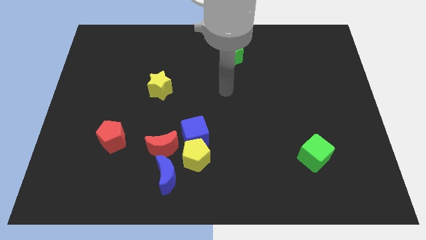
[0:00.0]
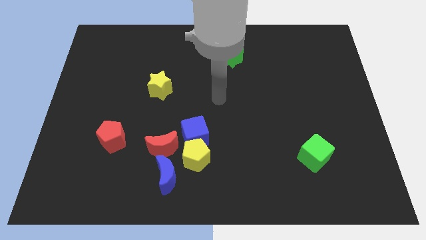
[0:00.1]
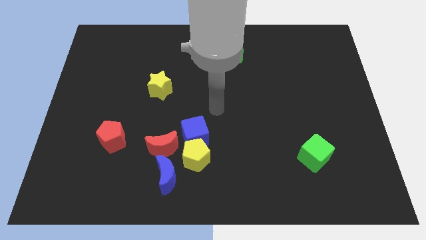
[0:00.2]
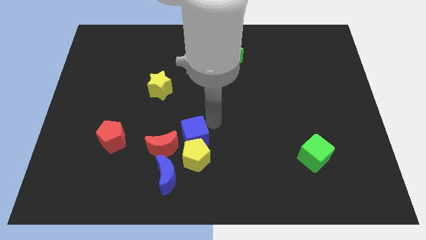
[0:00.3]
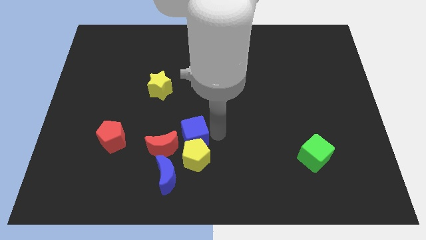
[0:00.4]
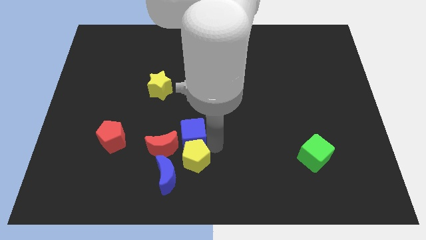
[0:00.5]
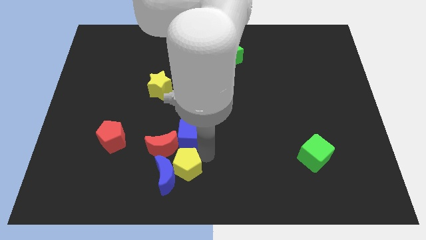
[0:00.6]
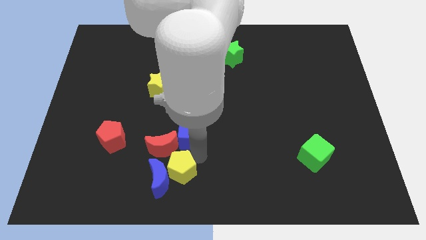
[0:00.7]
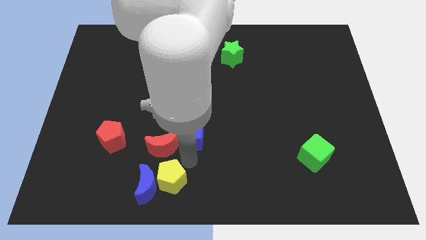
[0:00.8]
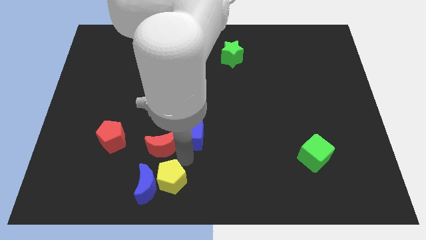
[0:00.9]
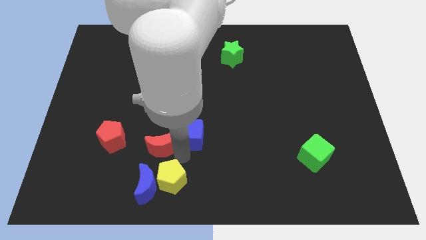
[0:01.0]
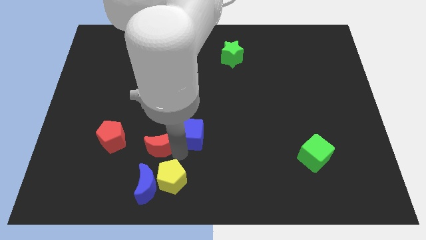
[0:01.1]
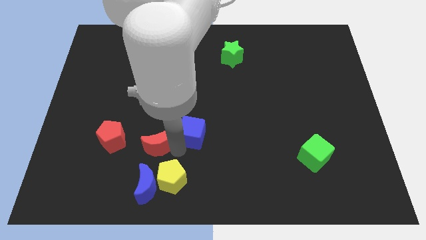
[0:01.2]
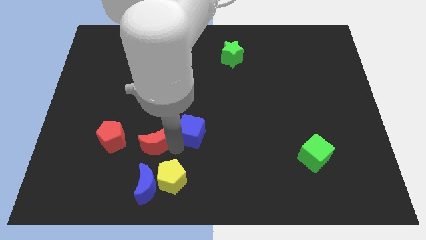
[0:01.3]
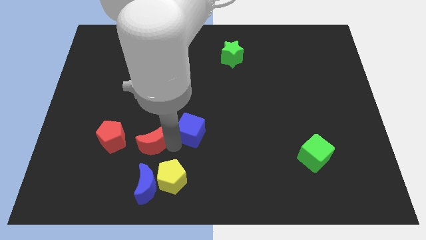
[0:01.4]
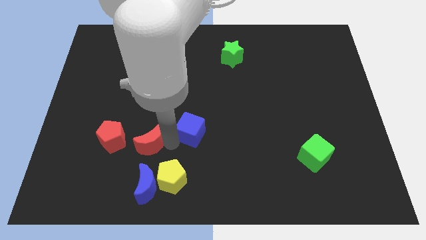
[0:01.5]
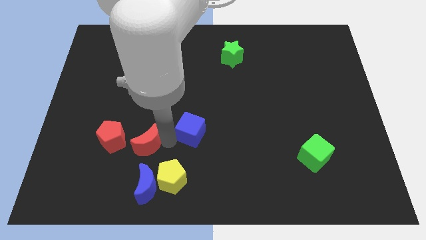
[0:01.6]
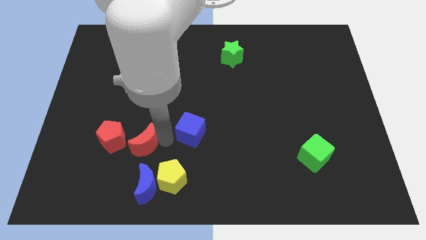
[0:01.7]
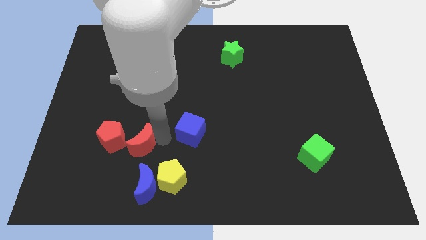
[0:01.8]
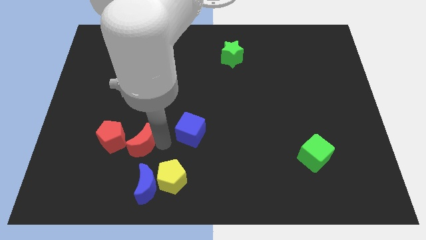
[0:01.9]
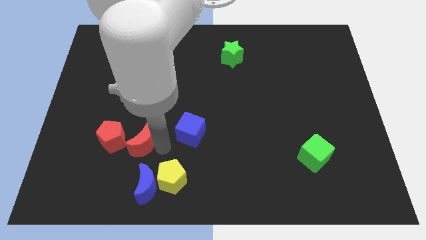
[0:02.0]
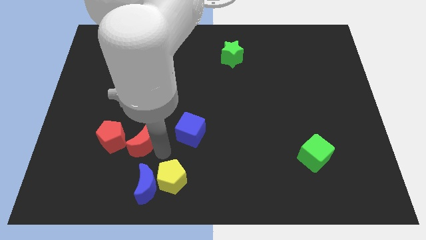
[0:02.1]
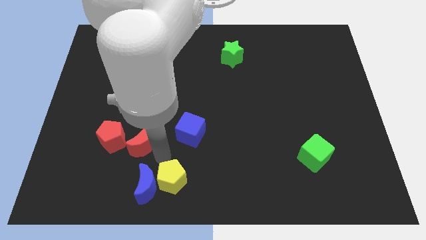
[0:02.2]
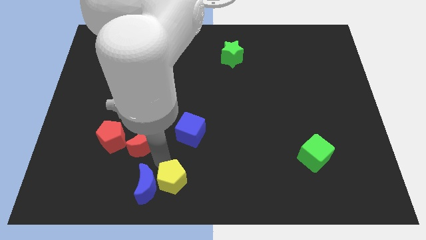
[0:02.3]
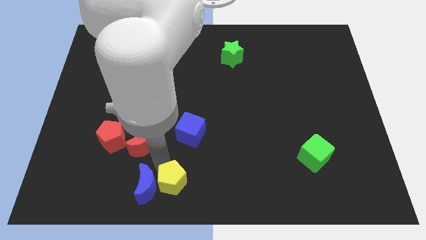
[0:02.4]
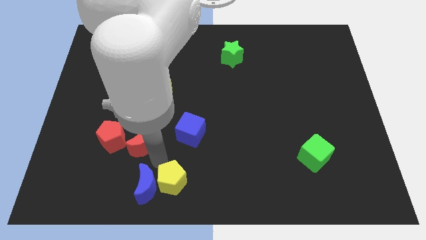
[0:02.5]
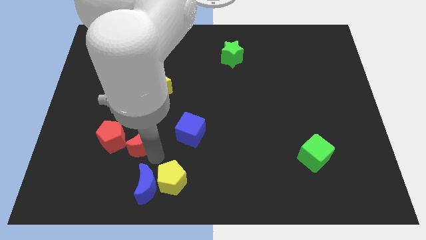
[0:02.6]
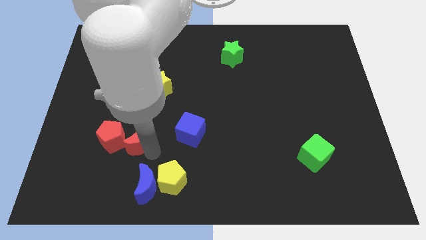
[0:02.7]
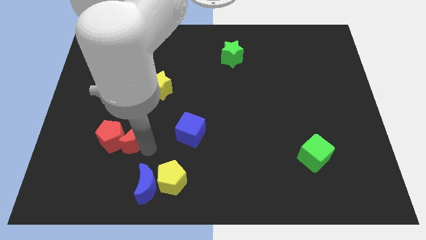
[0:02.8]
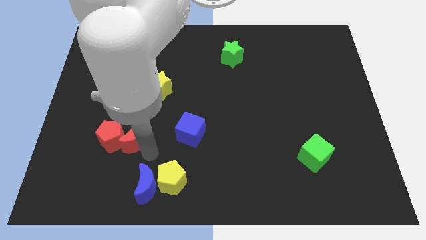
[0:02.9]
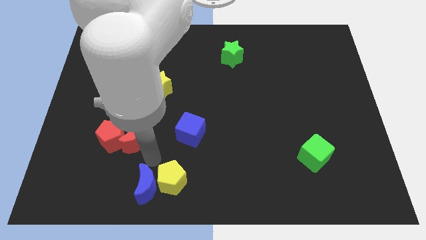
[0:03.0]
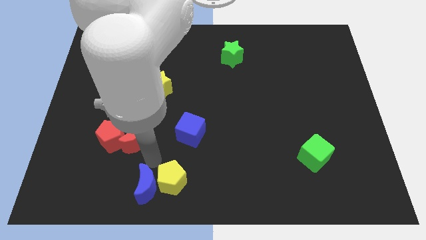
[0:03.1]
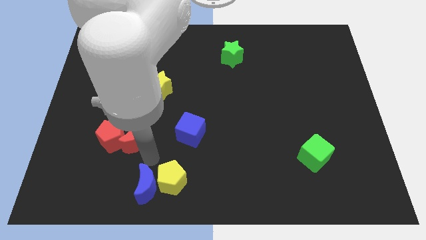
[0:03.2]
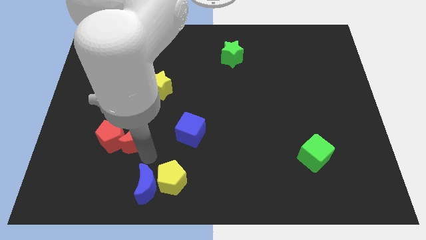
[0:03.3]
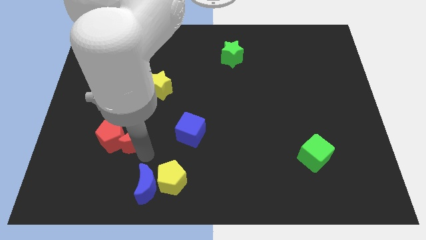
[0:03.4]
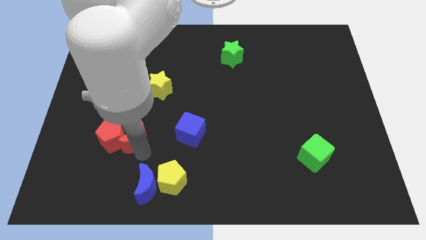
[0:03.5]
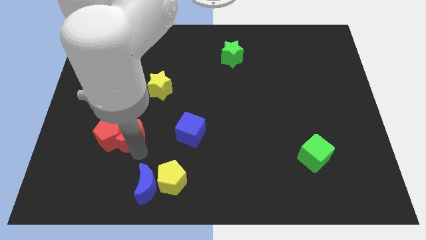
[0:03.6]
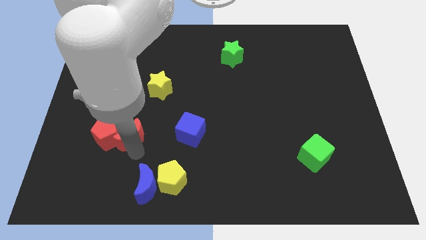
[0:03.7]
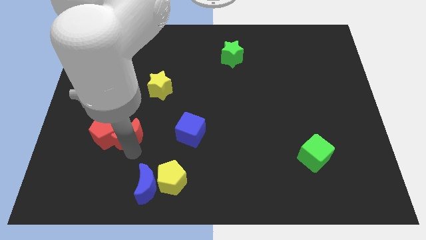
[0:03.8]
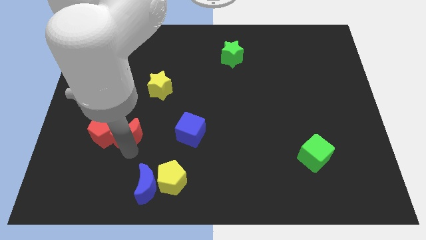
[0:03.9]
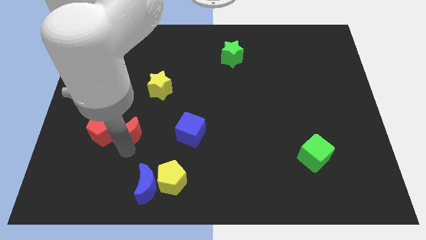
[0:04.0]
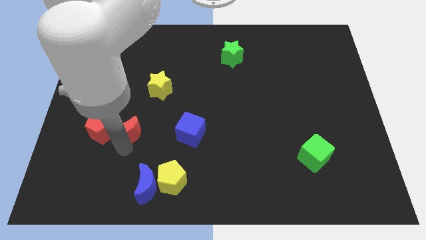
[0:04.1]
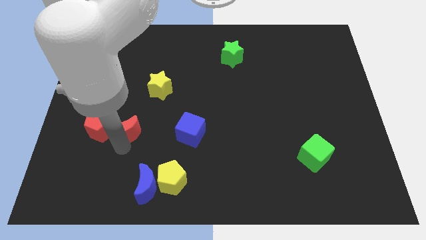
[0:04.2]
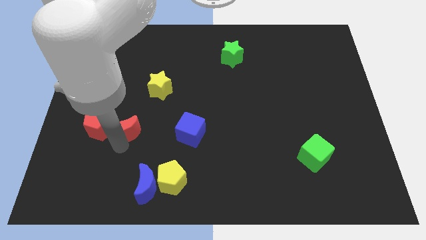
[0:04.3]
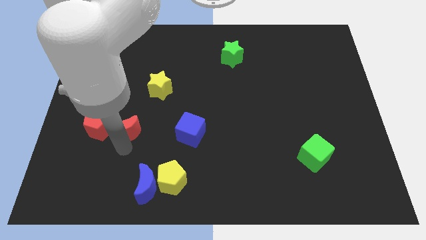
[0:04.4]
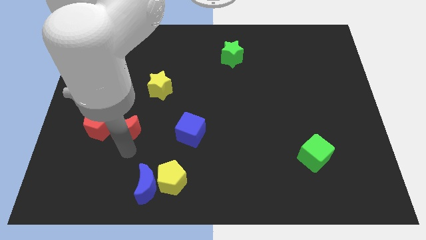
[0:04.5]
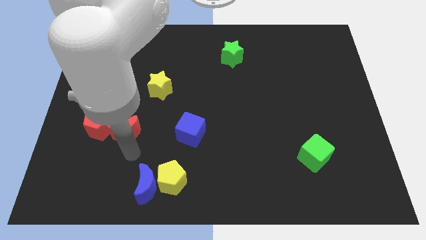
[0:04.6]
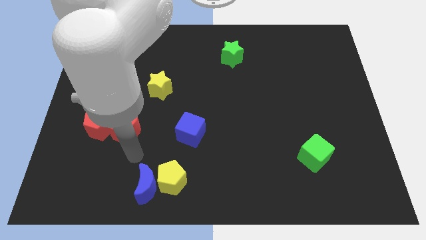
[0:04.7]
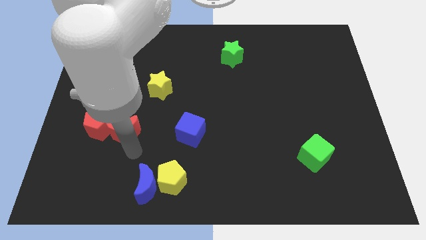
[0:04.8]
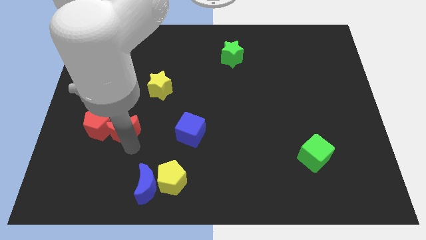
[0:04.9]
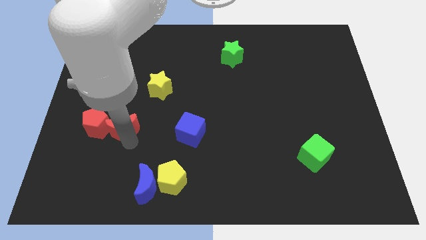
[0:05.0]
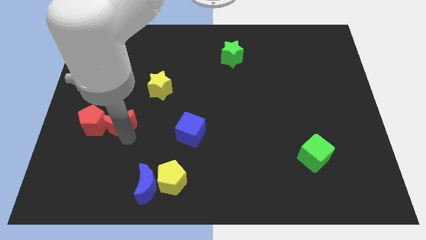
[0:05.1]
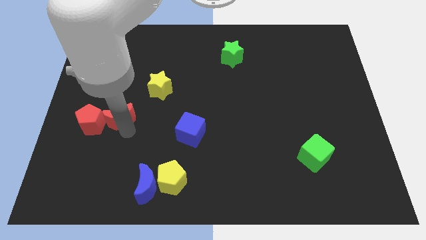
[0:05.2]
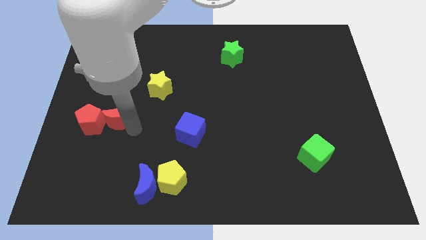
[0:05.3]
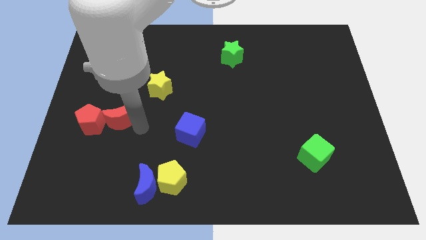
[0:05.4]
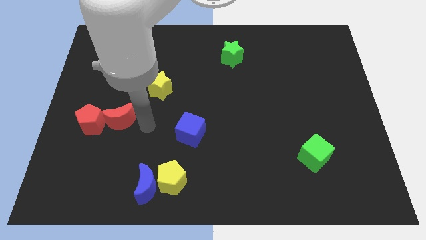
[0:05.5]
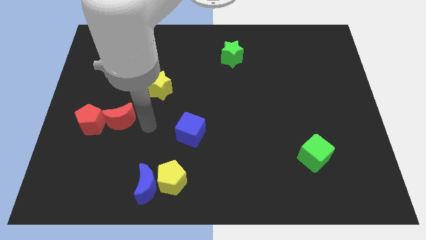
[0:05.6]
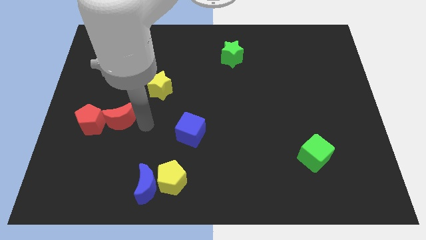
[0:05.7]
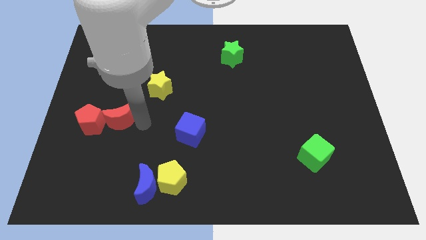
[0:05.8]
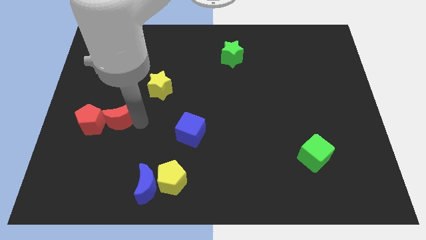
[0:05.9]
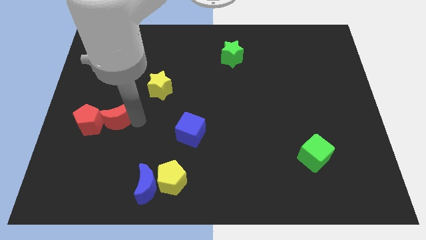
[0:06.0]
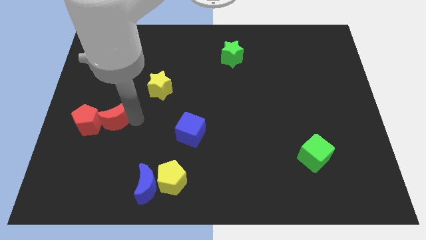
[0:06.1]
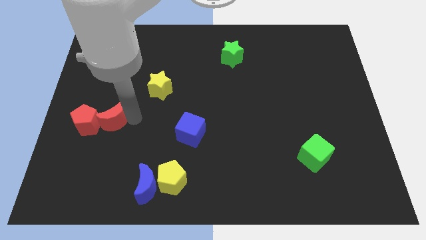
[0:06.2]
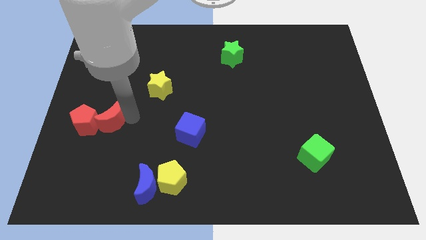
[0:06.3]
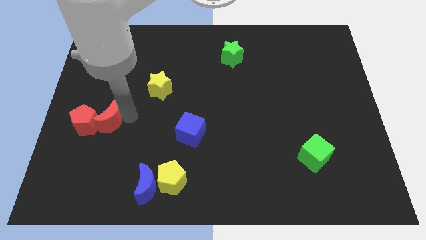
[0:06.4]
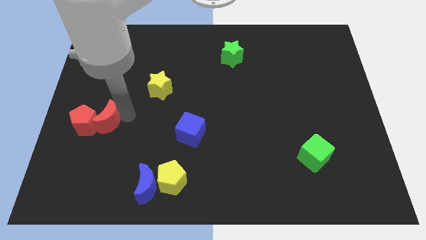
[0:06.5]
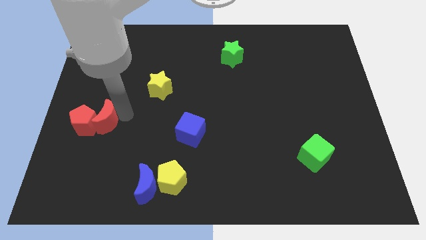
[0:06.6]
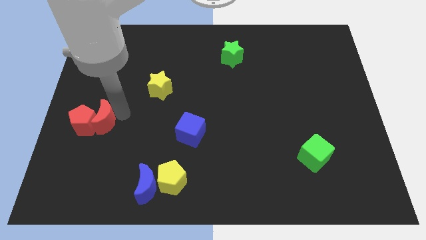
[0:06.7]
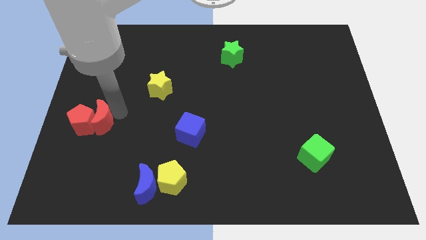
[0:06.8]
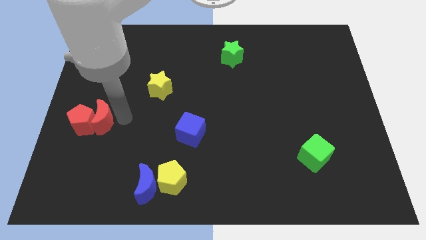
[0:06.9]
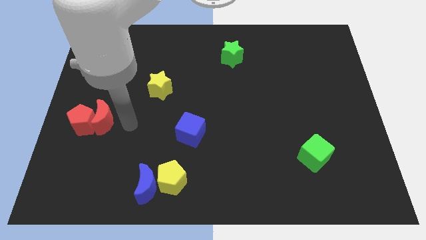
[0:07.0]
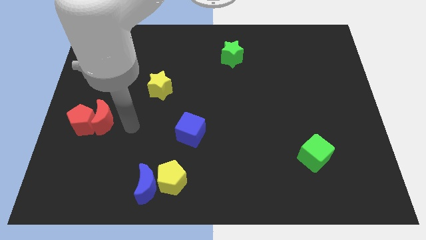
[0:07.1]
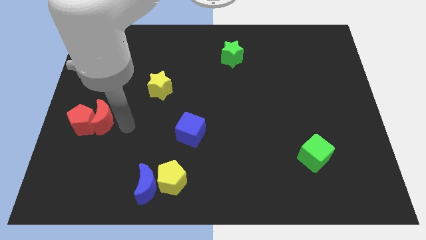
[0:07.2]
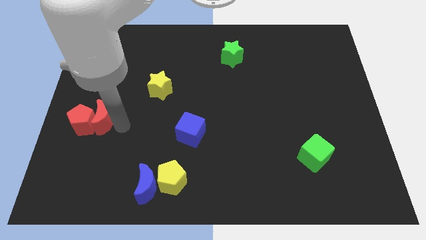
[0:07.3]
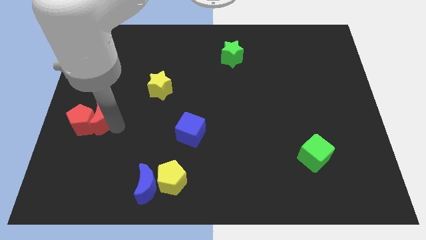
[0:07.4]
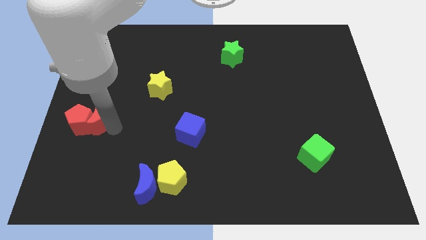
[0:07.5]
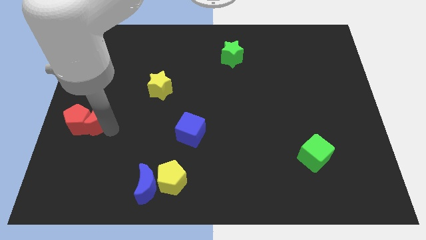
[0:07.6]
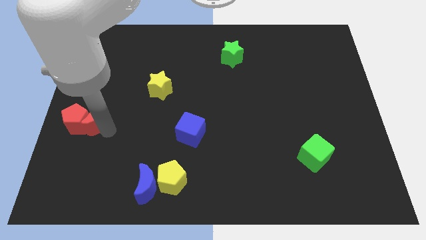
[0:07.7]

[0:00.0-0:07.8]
slide the red moon to the left side
